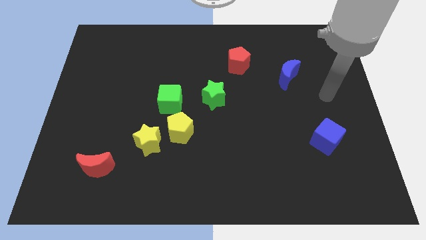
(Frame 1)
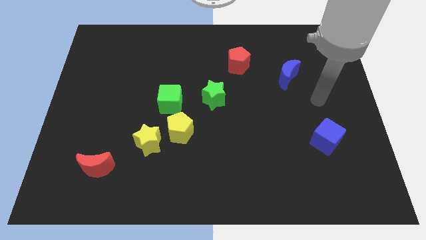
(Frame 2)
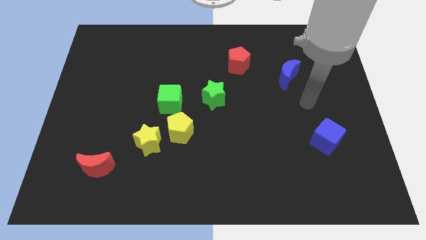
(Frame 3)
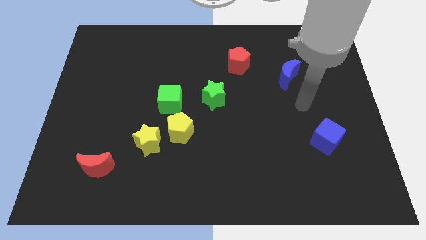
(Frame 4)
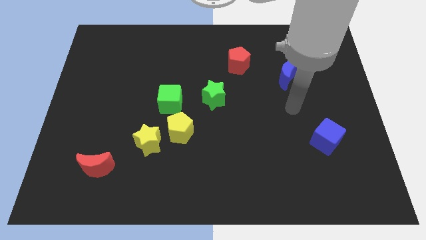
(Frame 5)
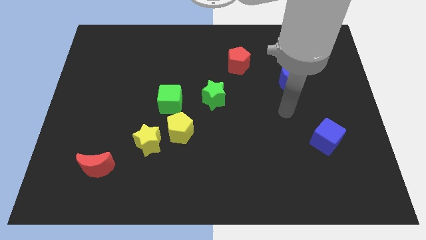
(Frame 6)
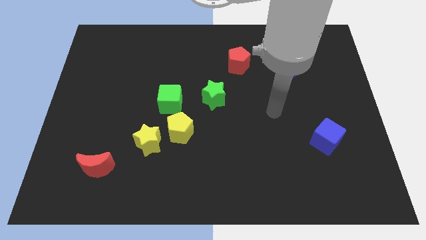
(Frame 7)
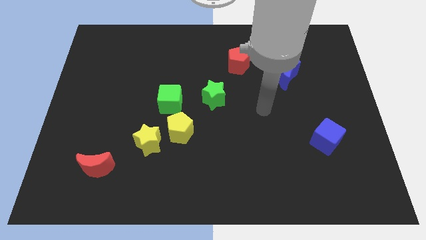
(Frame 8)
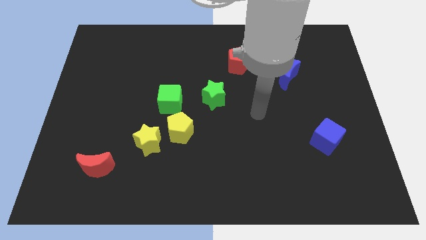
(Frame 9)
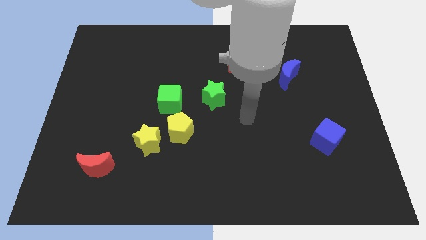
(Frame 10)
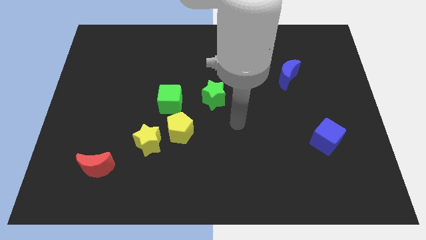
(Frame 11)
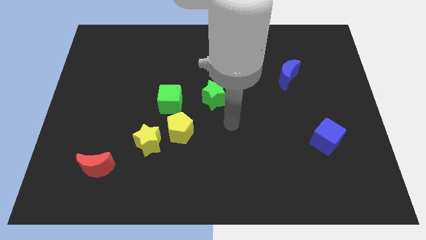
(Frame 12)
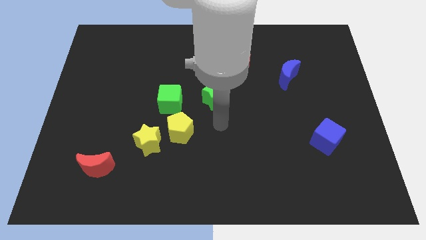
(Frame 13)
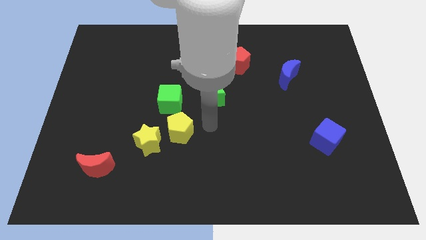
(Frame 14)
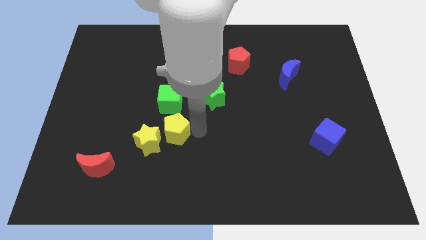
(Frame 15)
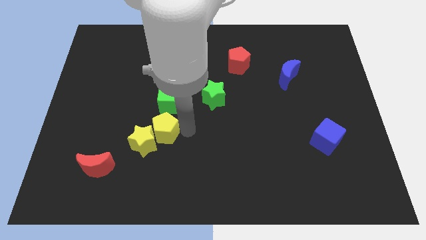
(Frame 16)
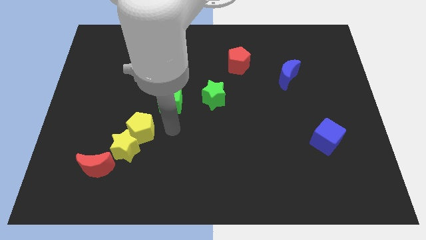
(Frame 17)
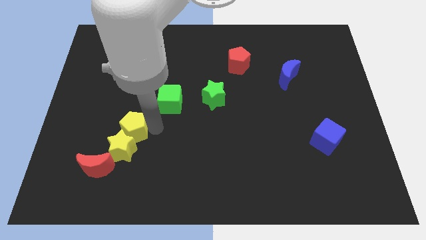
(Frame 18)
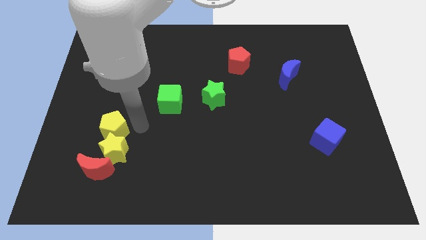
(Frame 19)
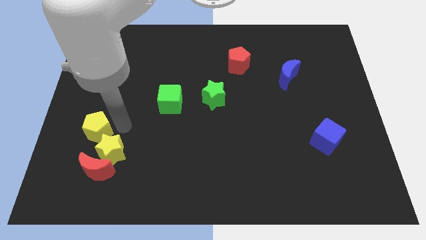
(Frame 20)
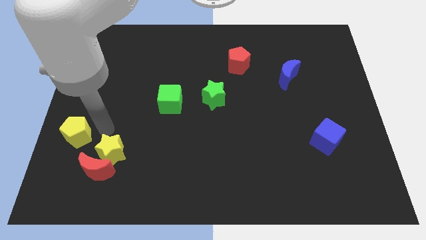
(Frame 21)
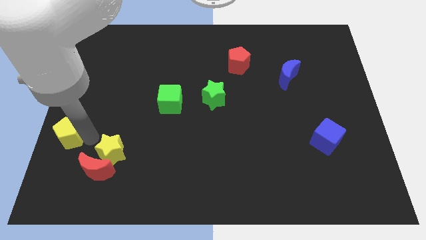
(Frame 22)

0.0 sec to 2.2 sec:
separate the yellow star from the yellow pentagon

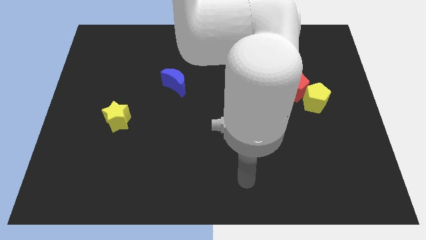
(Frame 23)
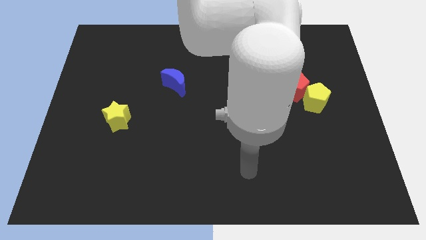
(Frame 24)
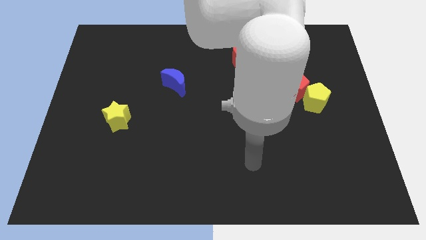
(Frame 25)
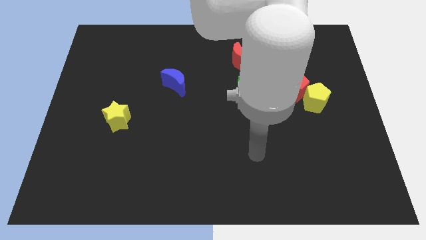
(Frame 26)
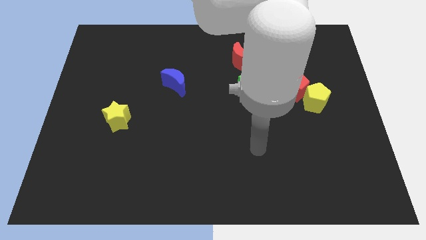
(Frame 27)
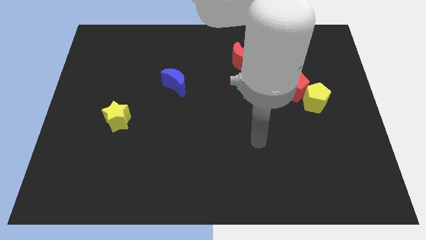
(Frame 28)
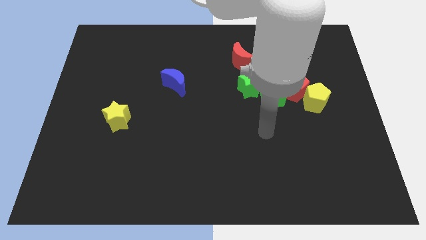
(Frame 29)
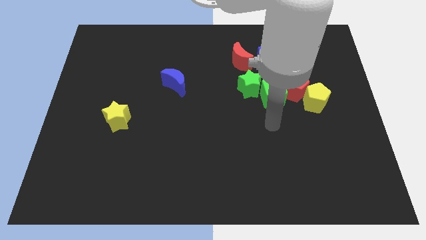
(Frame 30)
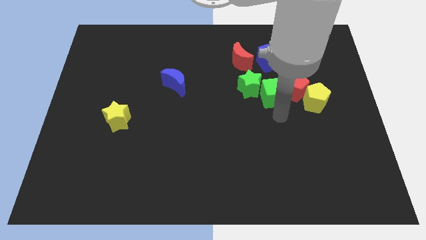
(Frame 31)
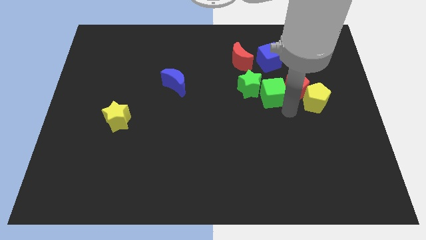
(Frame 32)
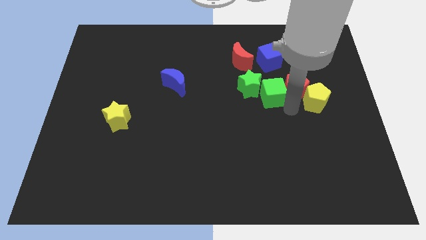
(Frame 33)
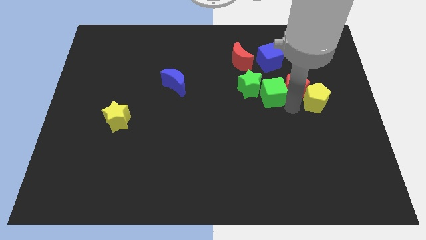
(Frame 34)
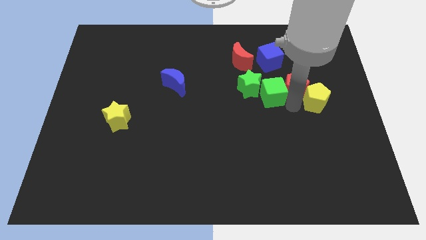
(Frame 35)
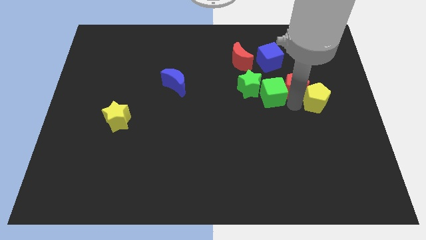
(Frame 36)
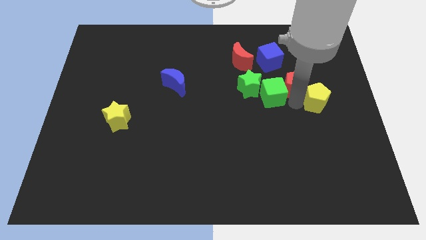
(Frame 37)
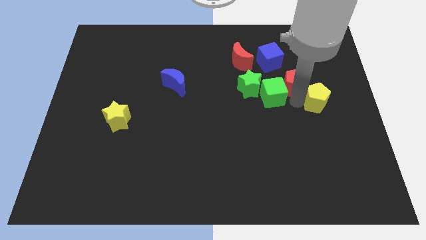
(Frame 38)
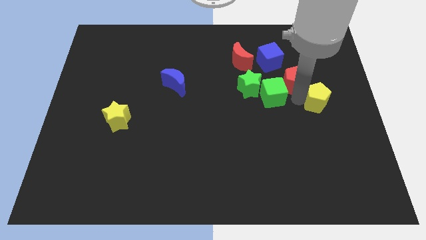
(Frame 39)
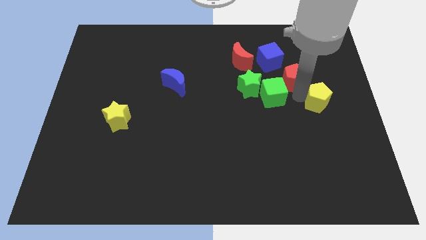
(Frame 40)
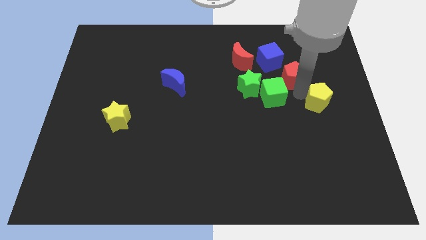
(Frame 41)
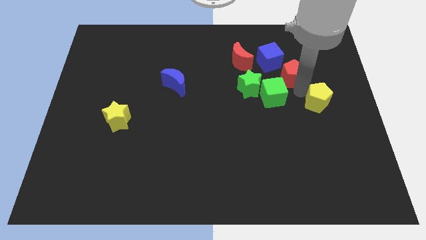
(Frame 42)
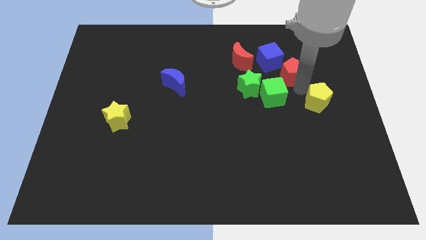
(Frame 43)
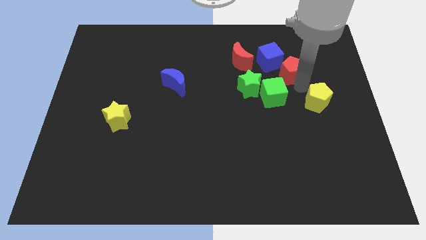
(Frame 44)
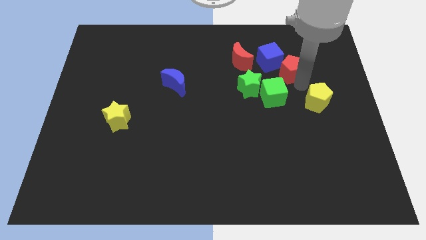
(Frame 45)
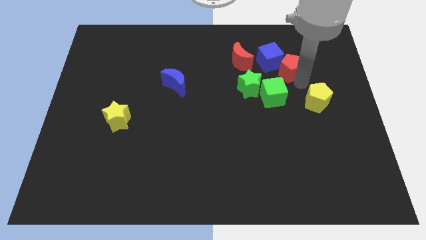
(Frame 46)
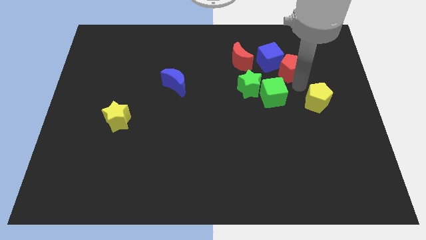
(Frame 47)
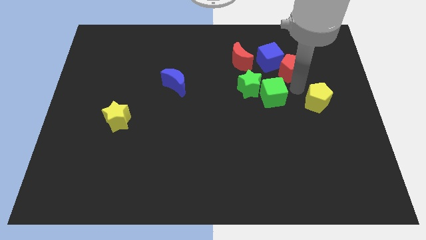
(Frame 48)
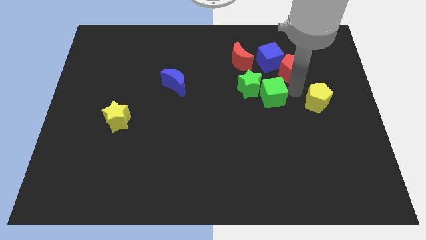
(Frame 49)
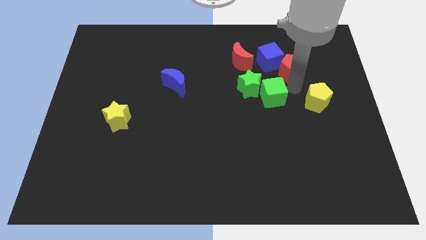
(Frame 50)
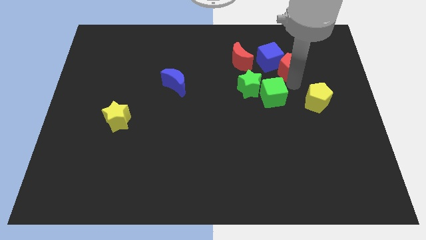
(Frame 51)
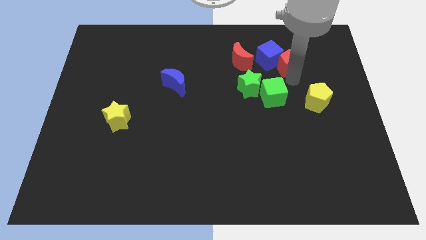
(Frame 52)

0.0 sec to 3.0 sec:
pull the red pentagon apart from the yellow pentagon and green cube

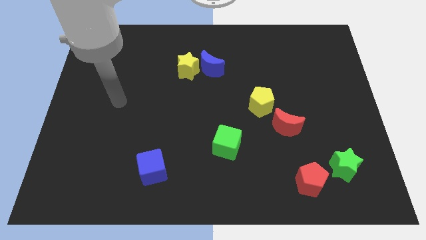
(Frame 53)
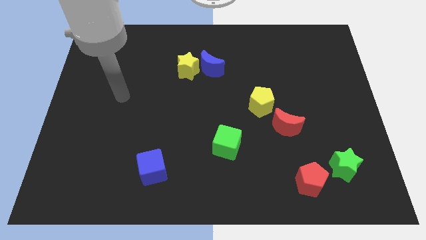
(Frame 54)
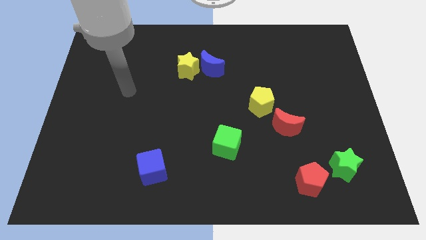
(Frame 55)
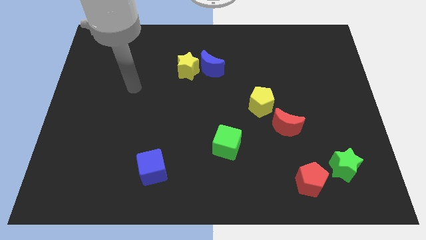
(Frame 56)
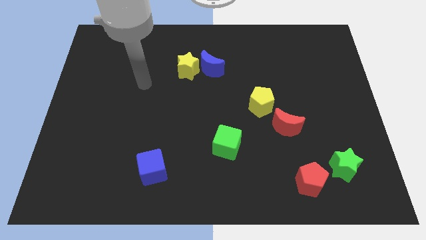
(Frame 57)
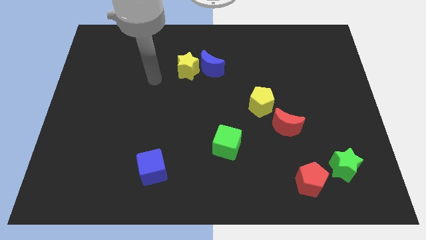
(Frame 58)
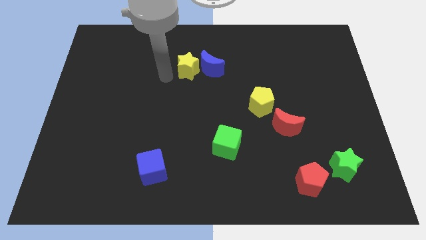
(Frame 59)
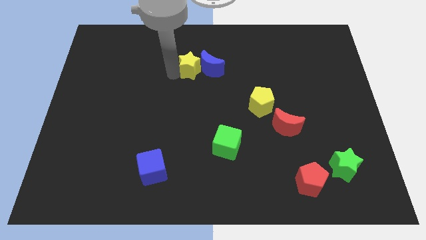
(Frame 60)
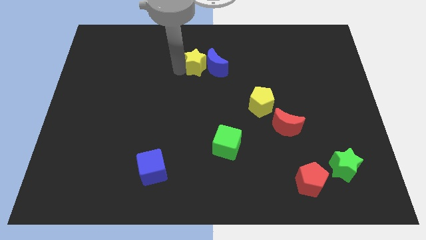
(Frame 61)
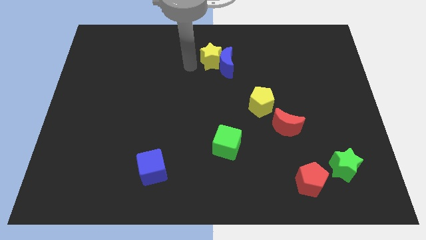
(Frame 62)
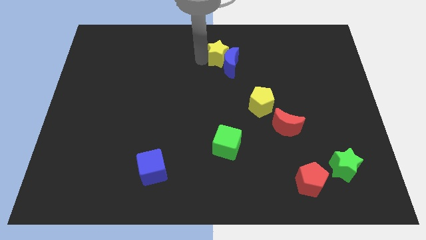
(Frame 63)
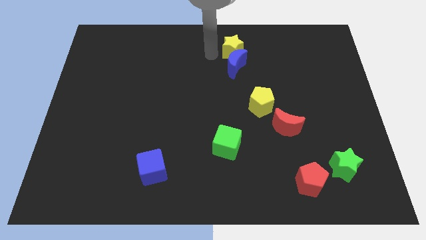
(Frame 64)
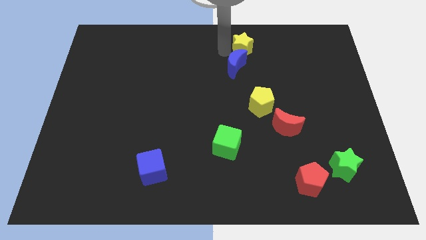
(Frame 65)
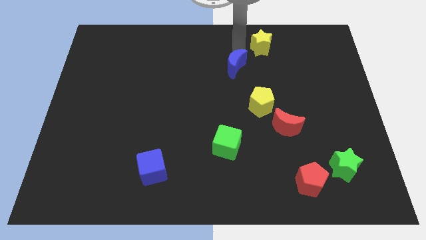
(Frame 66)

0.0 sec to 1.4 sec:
separate the blue moon from the yellow star

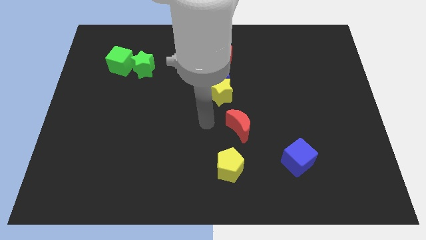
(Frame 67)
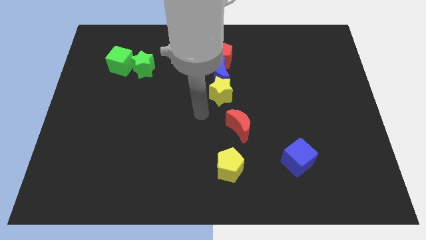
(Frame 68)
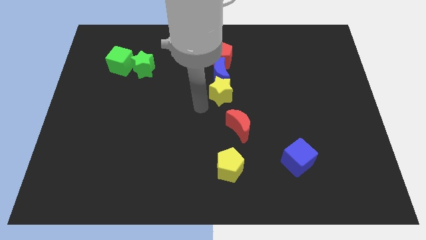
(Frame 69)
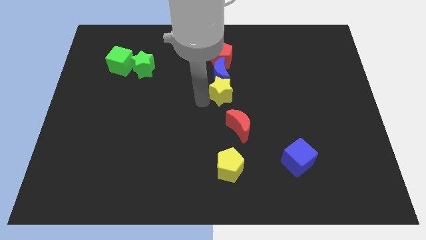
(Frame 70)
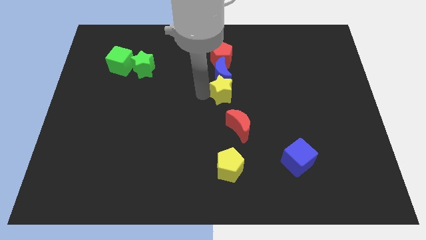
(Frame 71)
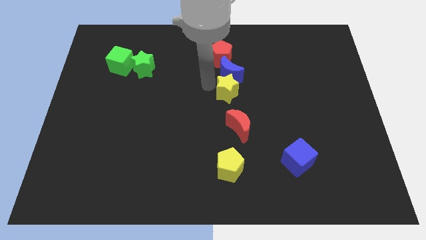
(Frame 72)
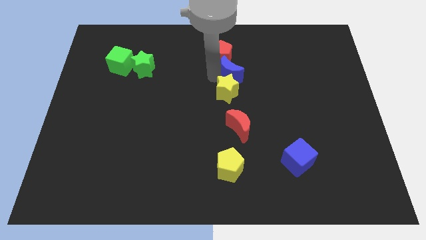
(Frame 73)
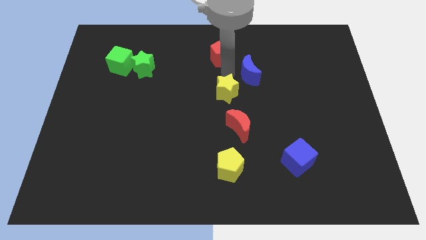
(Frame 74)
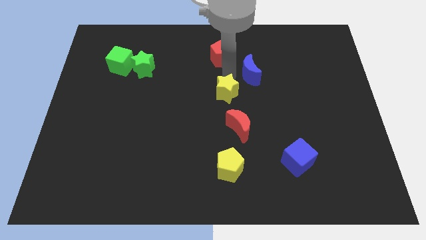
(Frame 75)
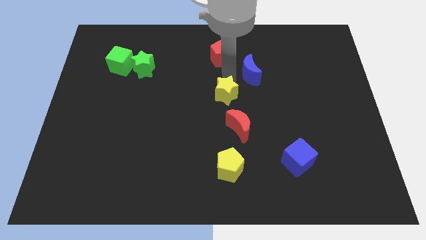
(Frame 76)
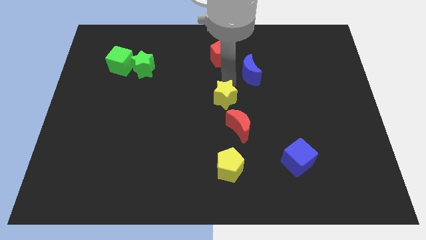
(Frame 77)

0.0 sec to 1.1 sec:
pull the yellow star apart from the blue moon

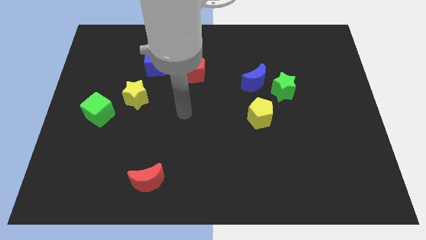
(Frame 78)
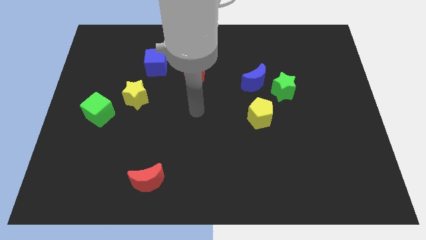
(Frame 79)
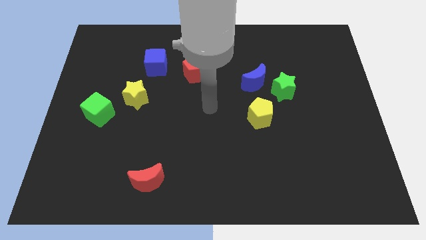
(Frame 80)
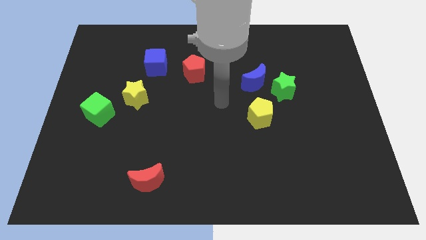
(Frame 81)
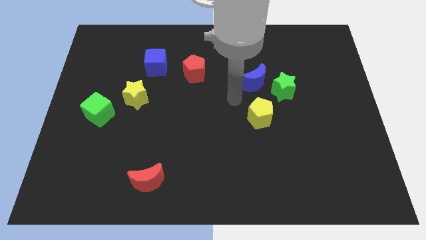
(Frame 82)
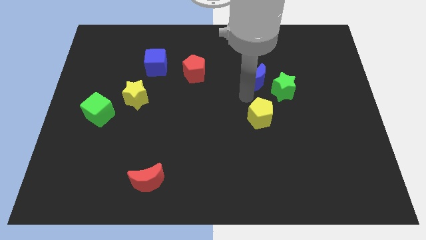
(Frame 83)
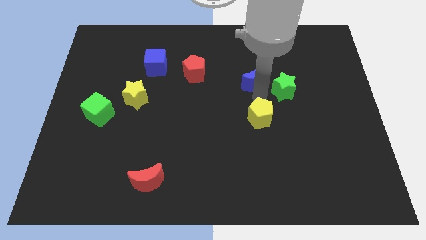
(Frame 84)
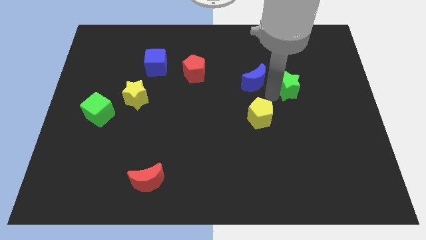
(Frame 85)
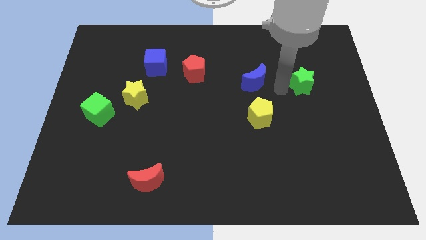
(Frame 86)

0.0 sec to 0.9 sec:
separate the blue moon from the green star

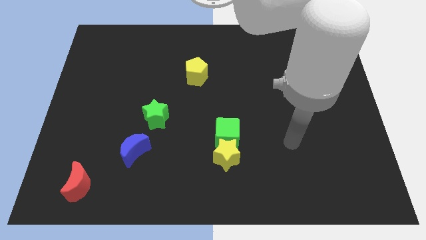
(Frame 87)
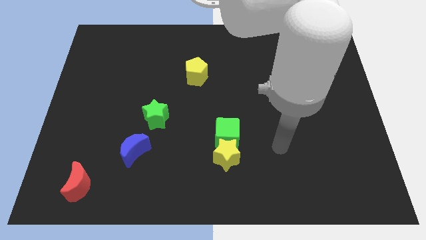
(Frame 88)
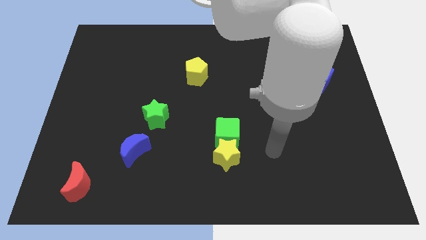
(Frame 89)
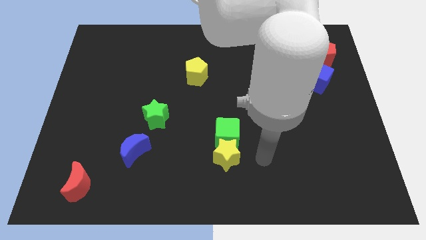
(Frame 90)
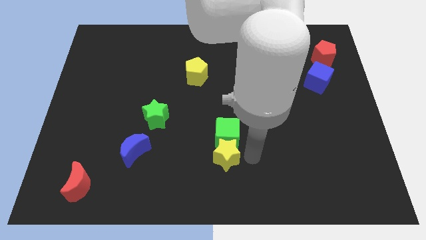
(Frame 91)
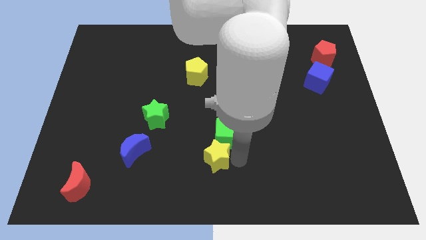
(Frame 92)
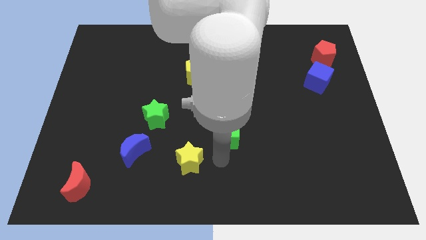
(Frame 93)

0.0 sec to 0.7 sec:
move the green cube away from the yellow star
